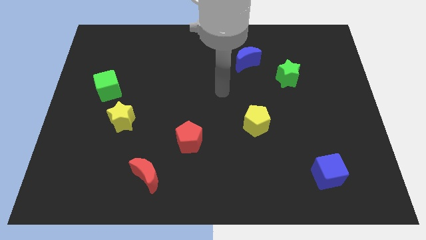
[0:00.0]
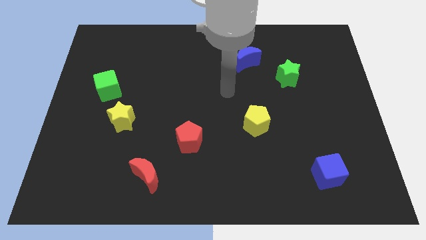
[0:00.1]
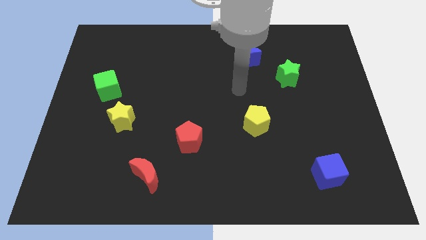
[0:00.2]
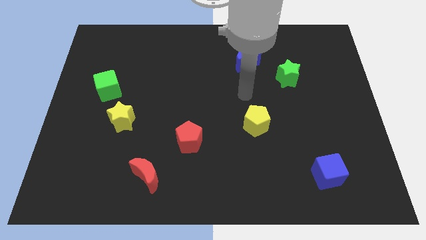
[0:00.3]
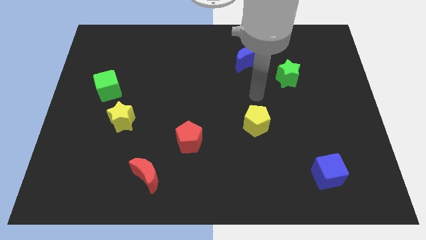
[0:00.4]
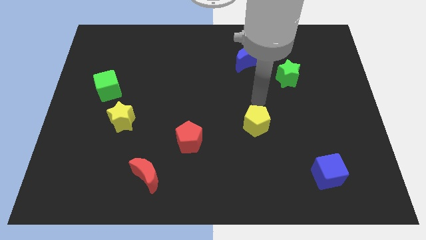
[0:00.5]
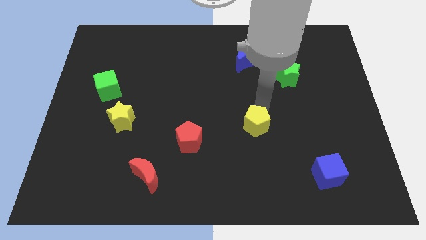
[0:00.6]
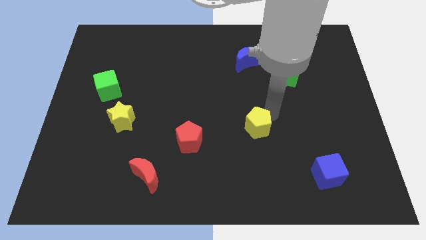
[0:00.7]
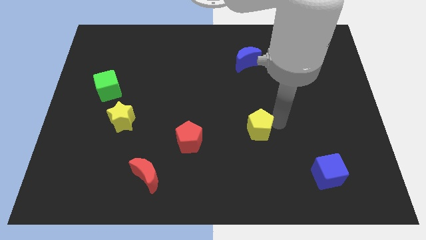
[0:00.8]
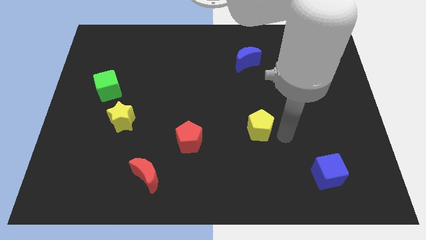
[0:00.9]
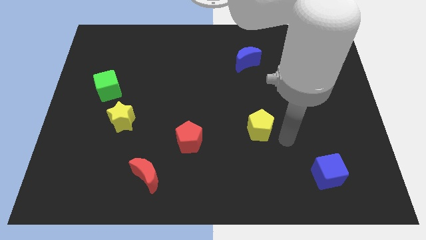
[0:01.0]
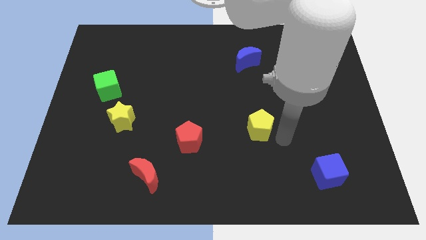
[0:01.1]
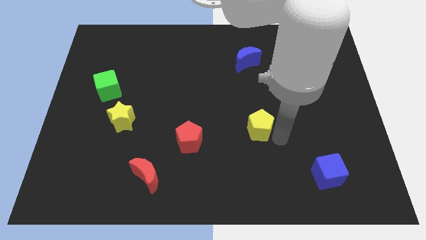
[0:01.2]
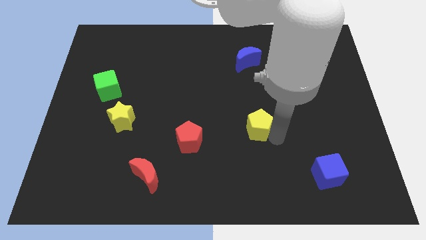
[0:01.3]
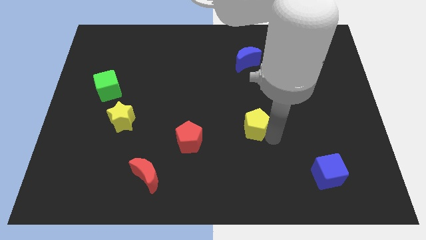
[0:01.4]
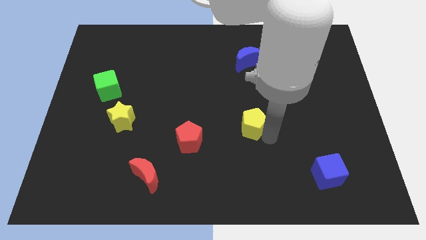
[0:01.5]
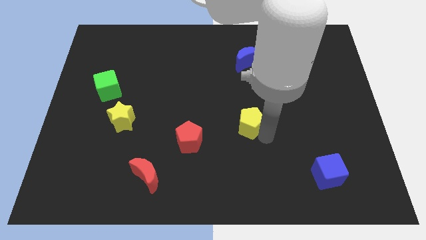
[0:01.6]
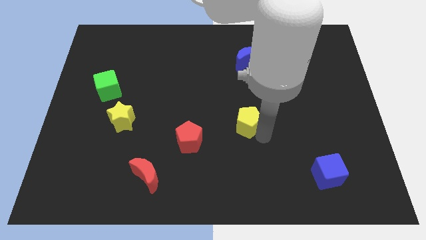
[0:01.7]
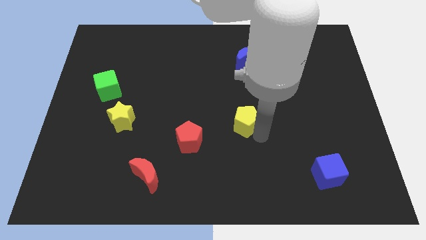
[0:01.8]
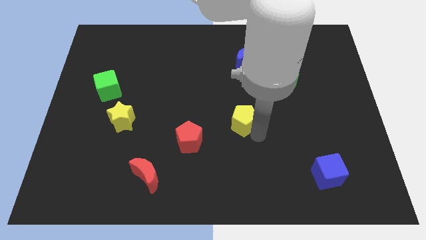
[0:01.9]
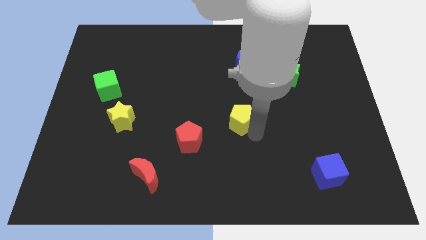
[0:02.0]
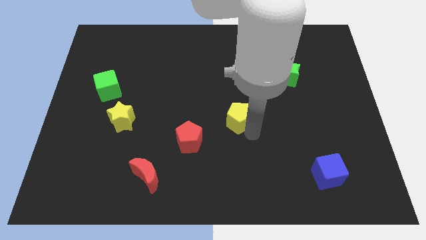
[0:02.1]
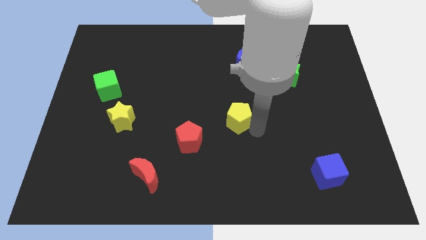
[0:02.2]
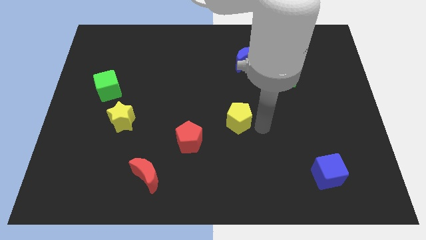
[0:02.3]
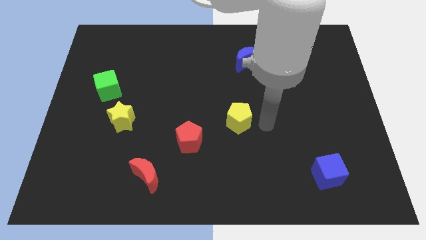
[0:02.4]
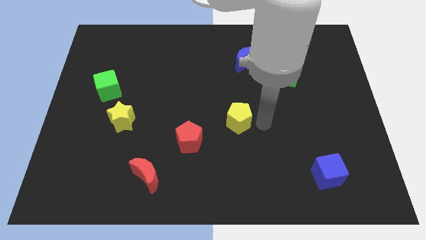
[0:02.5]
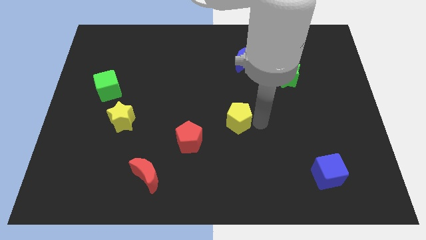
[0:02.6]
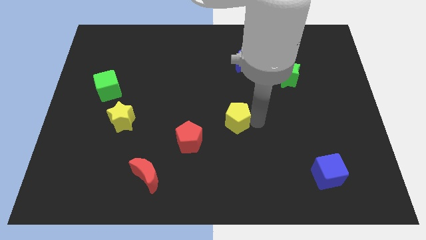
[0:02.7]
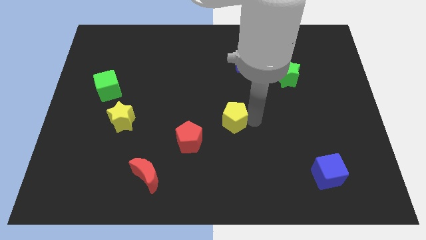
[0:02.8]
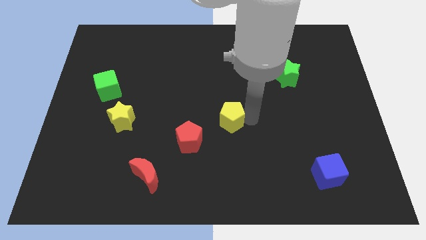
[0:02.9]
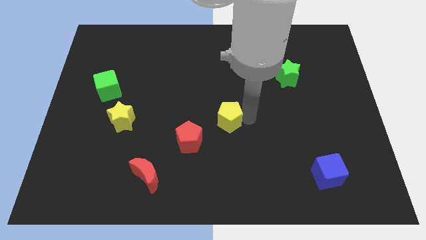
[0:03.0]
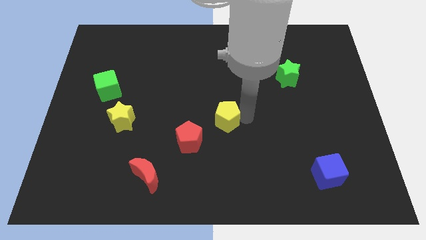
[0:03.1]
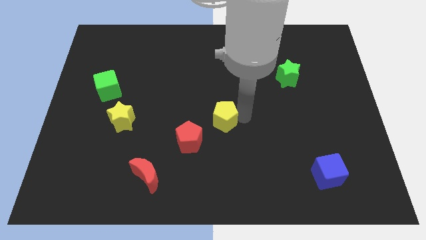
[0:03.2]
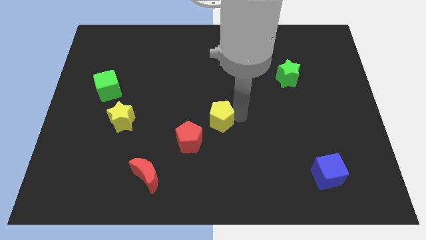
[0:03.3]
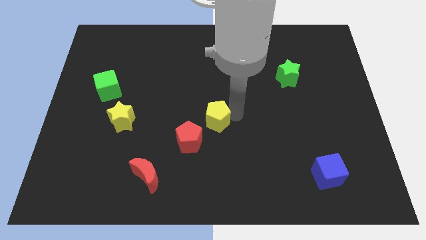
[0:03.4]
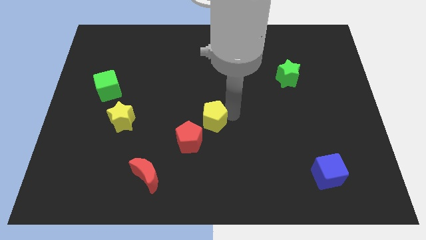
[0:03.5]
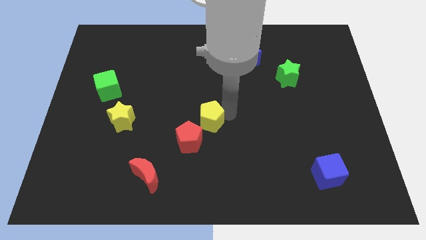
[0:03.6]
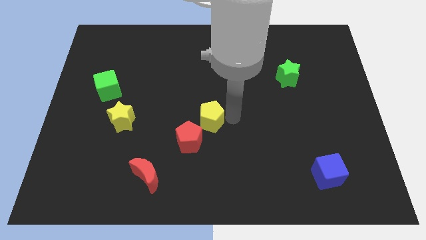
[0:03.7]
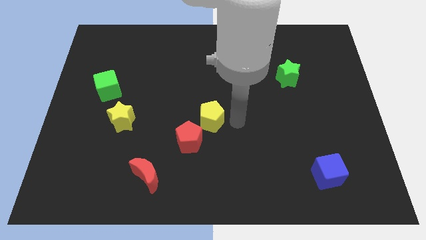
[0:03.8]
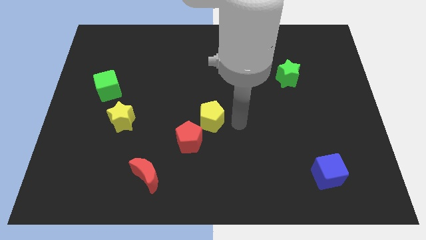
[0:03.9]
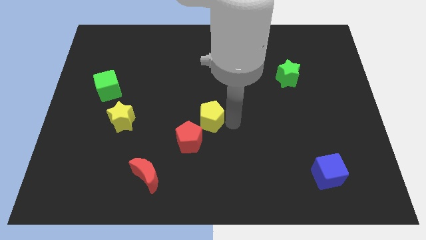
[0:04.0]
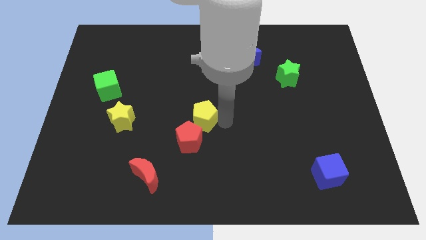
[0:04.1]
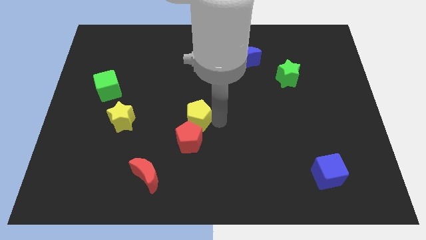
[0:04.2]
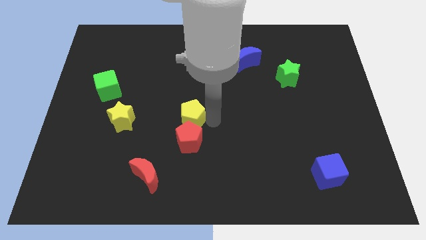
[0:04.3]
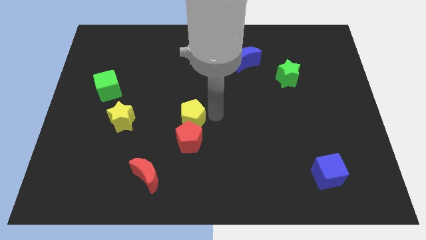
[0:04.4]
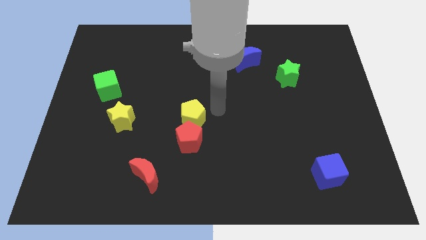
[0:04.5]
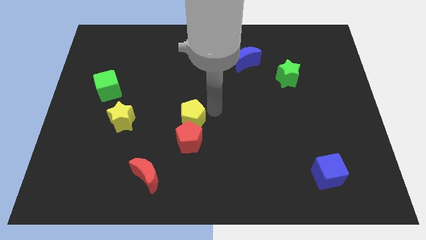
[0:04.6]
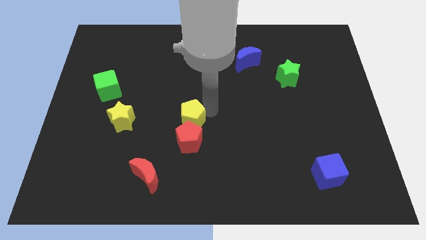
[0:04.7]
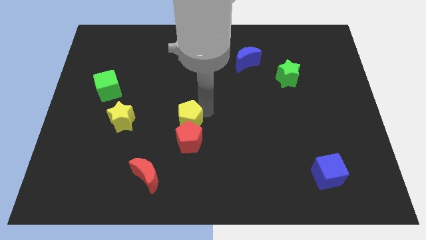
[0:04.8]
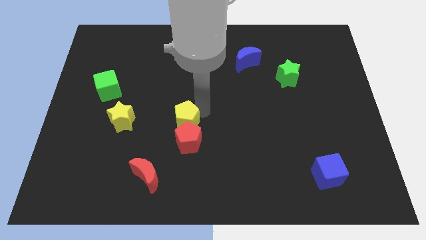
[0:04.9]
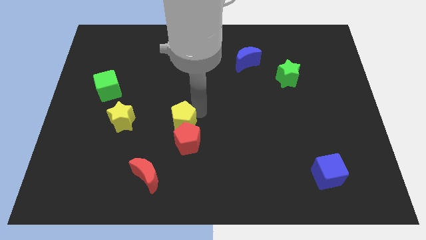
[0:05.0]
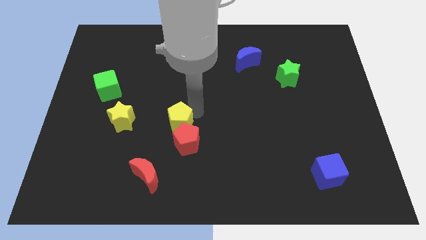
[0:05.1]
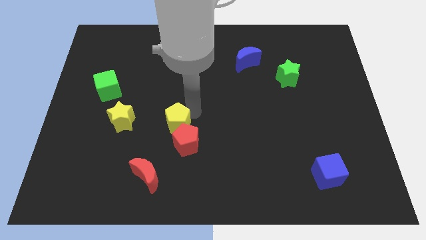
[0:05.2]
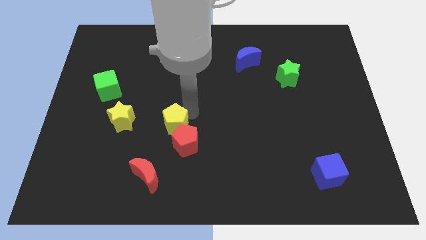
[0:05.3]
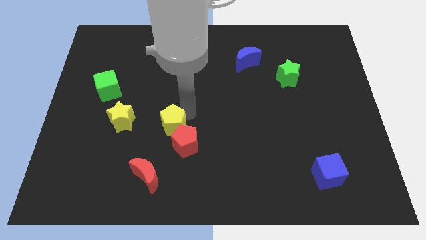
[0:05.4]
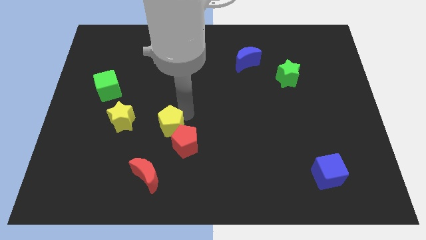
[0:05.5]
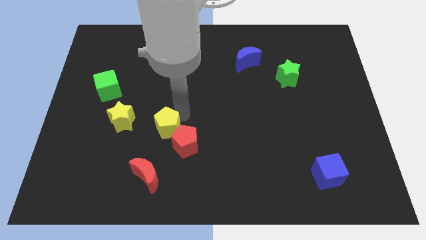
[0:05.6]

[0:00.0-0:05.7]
move the yellow pentagon to the left side of the red pentagon

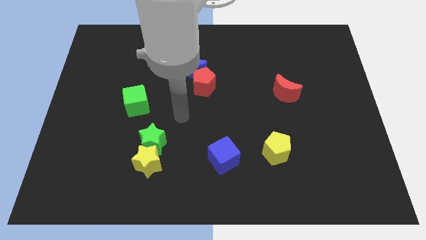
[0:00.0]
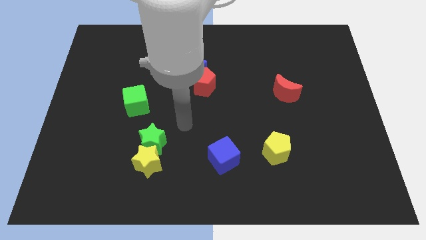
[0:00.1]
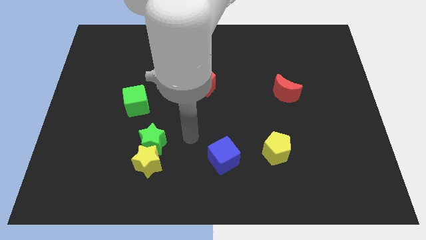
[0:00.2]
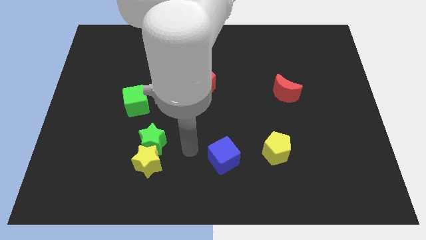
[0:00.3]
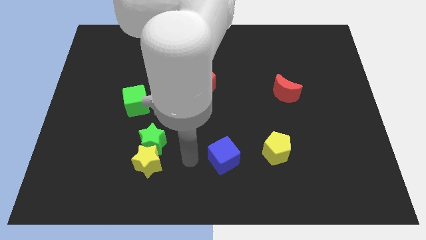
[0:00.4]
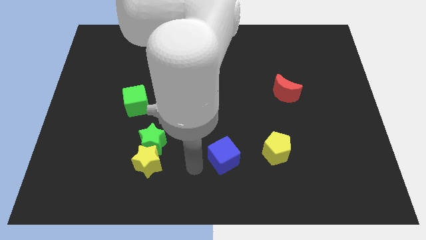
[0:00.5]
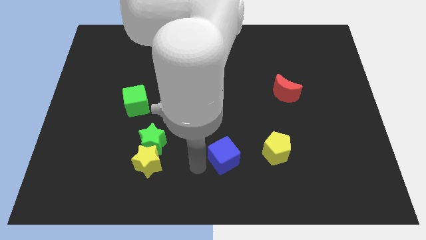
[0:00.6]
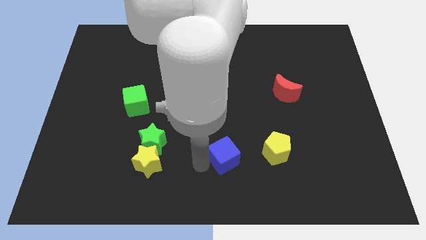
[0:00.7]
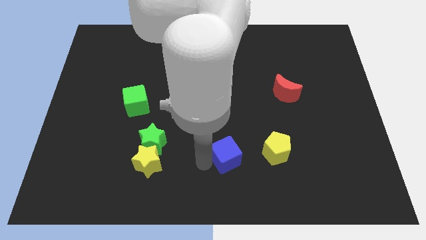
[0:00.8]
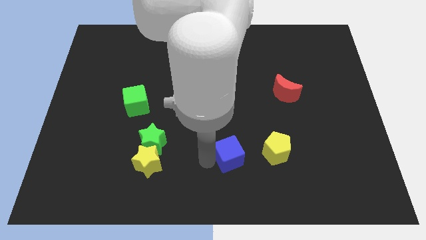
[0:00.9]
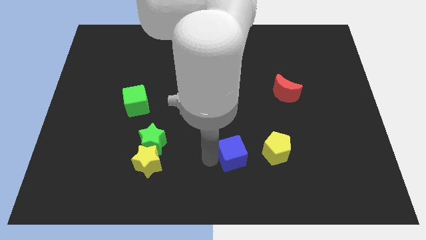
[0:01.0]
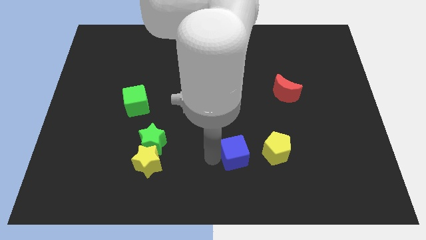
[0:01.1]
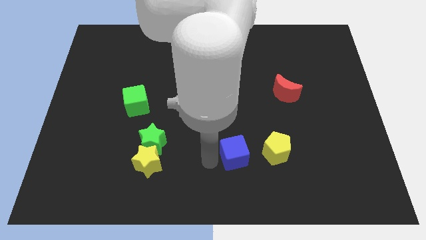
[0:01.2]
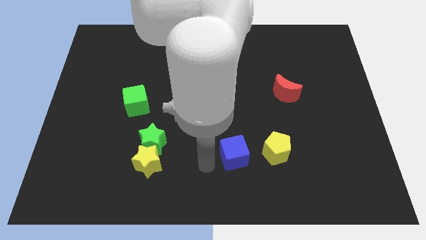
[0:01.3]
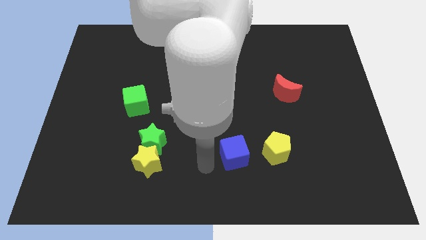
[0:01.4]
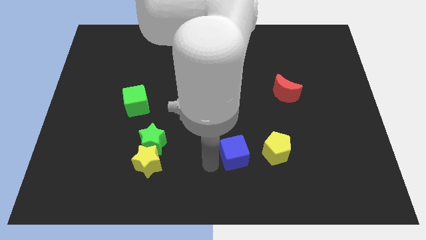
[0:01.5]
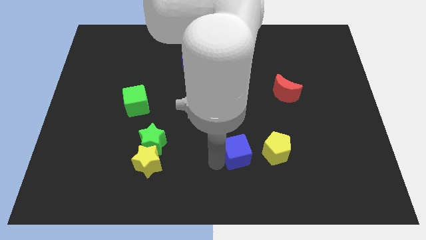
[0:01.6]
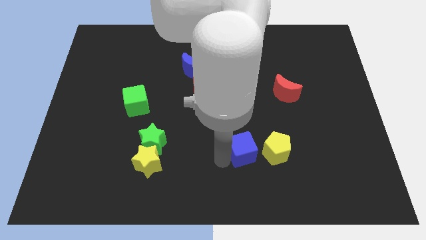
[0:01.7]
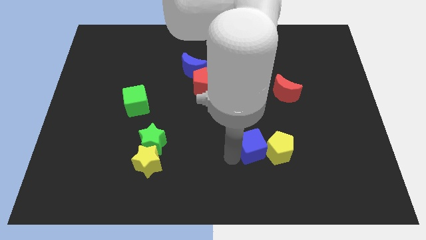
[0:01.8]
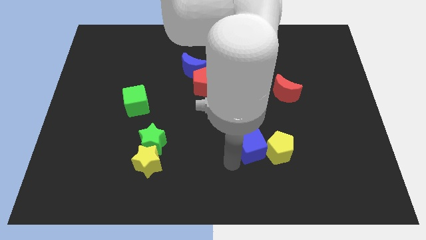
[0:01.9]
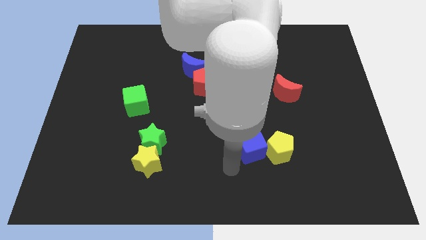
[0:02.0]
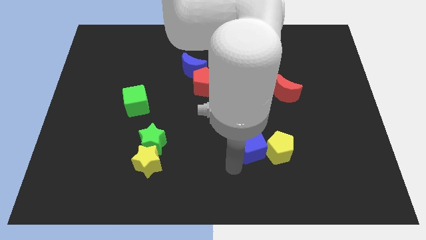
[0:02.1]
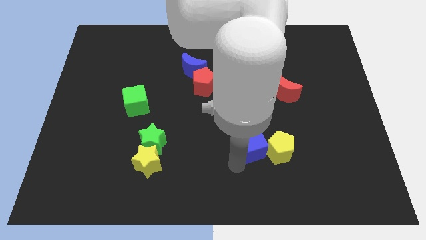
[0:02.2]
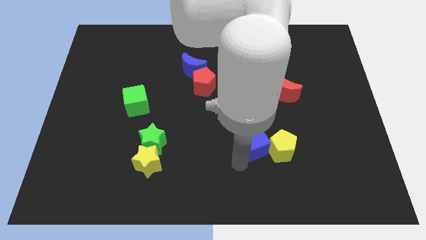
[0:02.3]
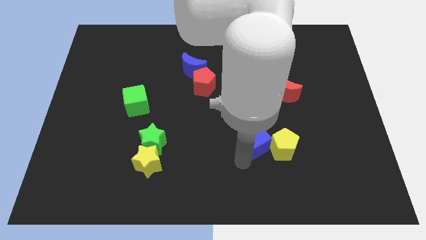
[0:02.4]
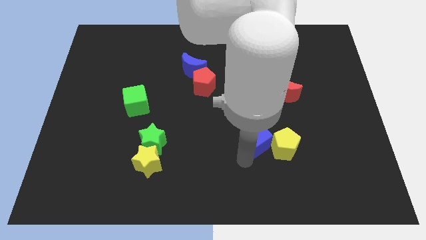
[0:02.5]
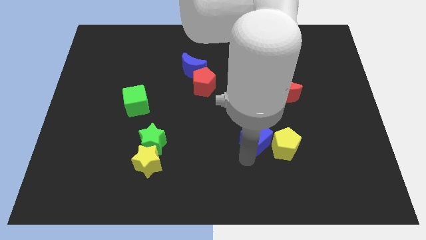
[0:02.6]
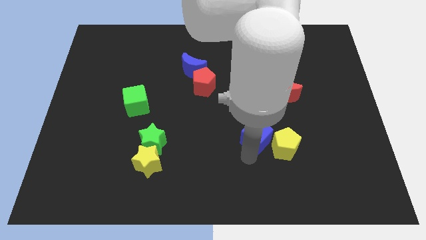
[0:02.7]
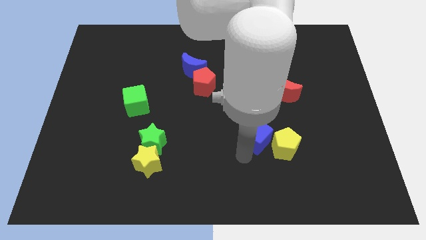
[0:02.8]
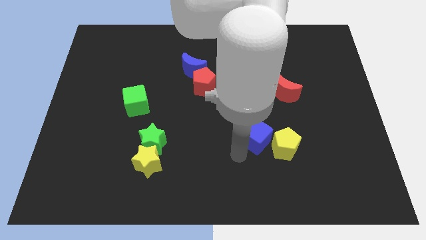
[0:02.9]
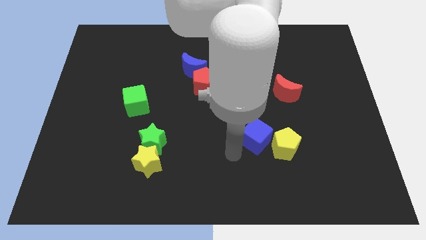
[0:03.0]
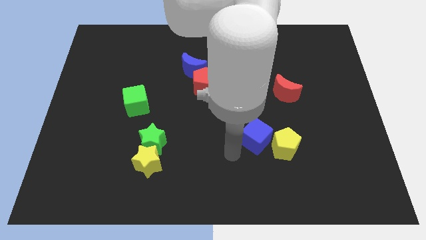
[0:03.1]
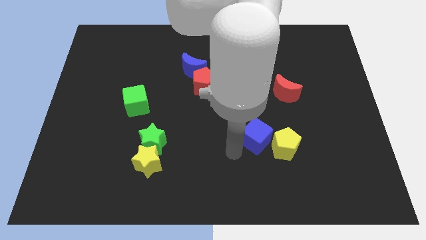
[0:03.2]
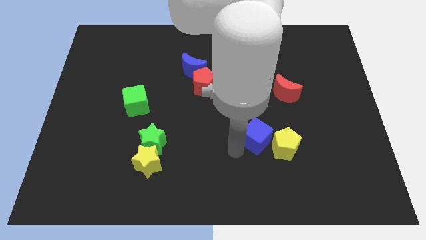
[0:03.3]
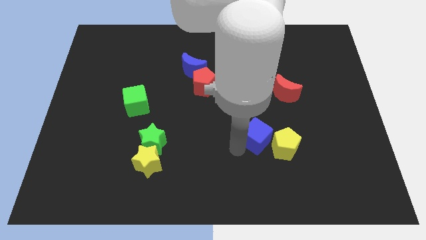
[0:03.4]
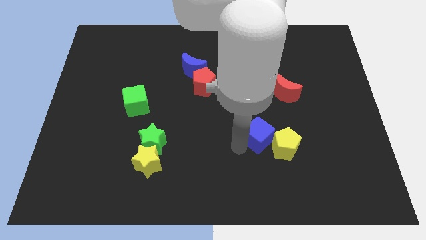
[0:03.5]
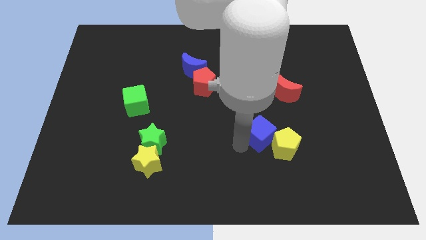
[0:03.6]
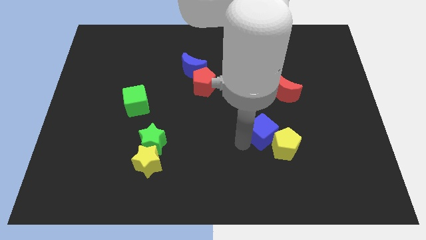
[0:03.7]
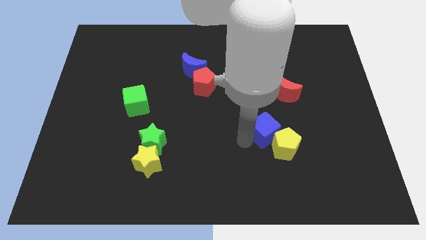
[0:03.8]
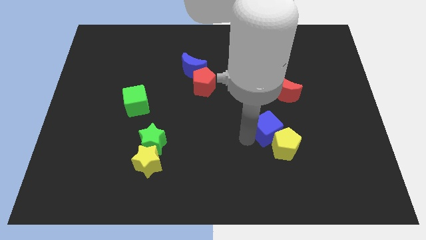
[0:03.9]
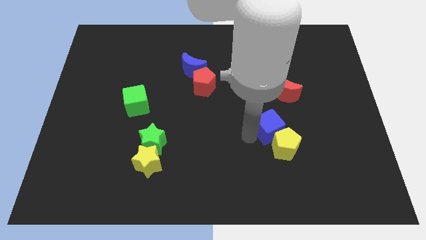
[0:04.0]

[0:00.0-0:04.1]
push the blue cube to the bottom of the red moon
